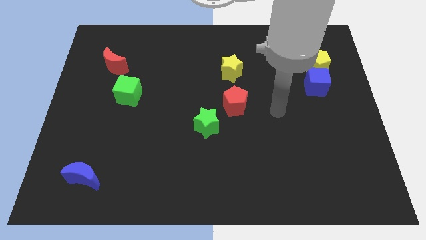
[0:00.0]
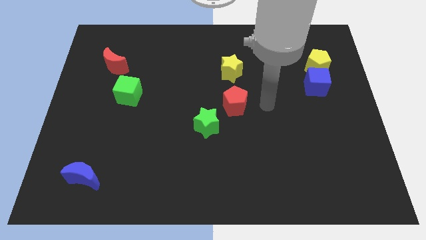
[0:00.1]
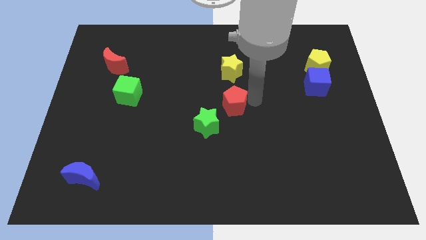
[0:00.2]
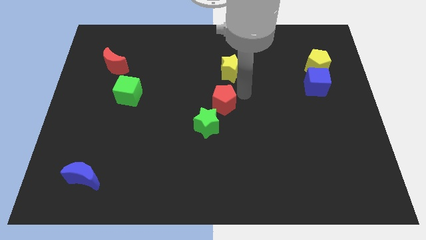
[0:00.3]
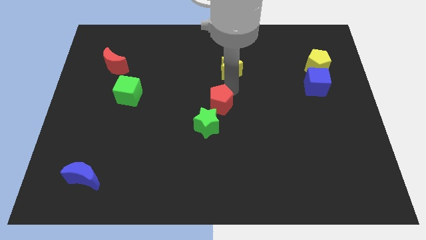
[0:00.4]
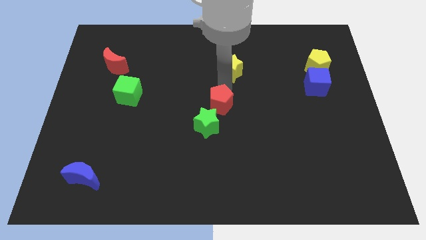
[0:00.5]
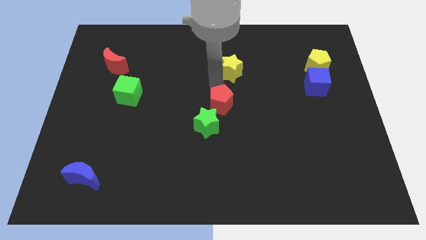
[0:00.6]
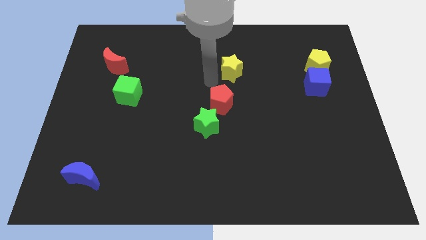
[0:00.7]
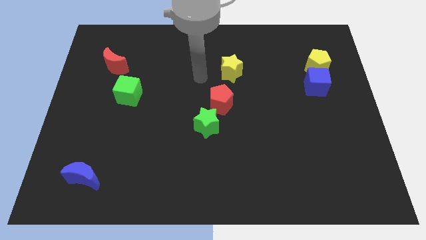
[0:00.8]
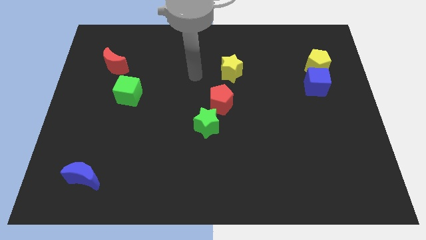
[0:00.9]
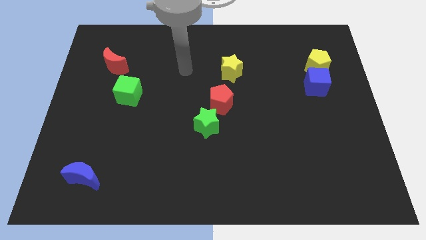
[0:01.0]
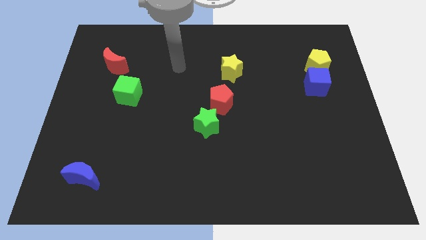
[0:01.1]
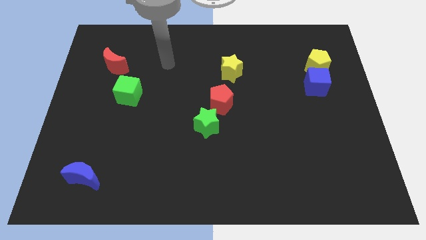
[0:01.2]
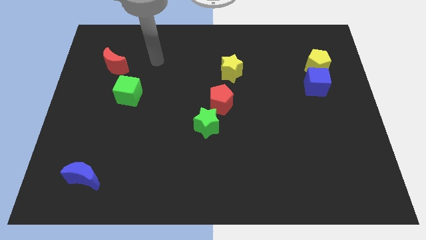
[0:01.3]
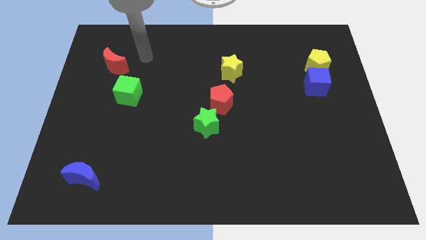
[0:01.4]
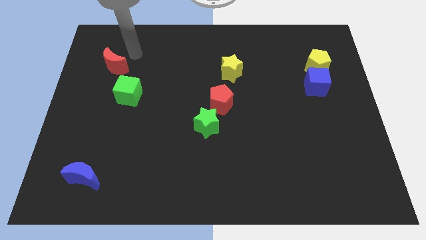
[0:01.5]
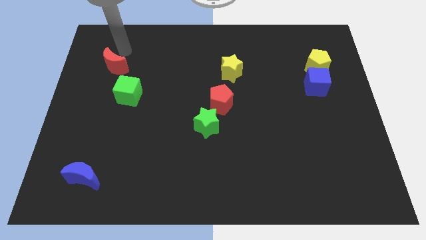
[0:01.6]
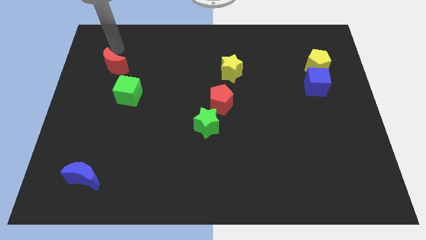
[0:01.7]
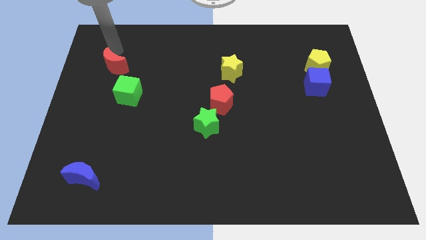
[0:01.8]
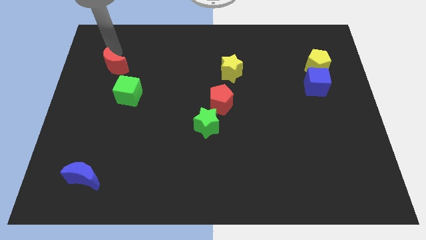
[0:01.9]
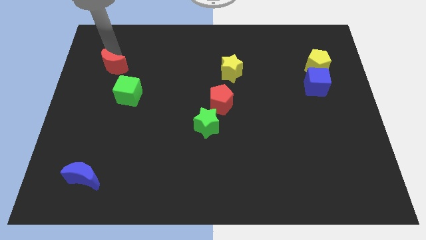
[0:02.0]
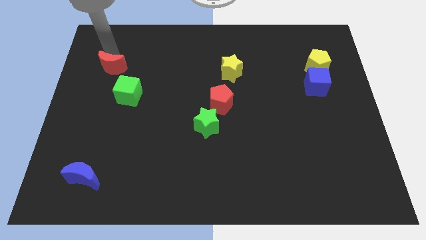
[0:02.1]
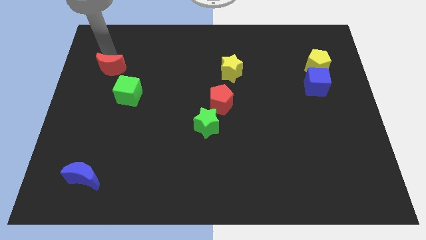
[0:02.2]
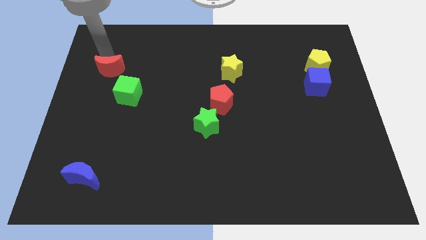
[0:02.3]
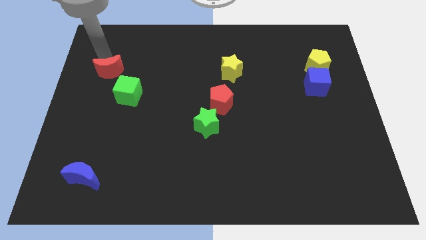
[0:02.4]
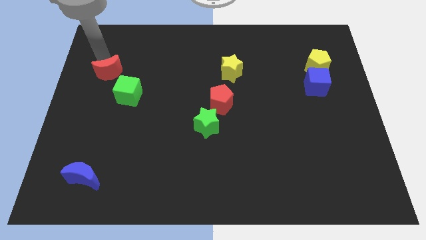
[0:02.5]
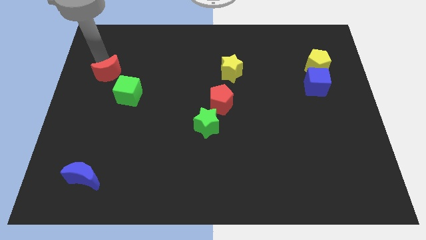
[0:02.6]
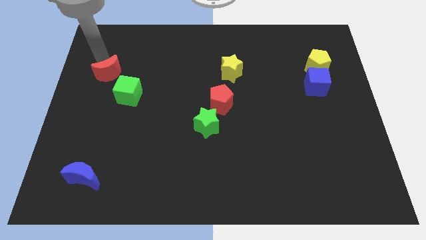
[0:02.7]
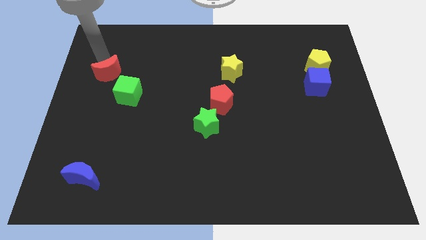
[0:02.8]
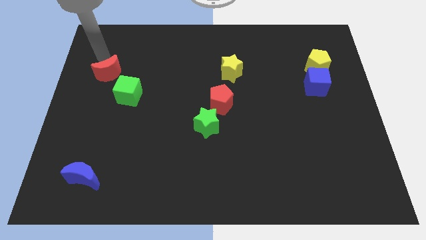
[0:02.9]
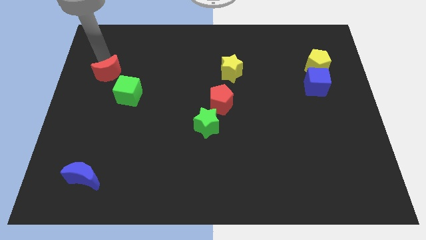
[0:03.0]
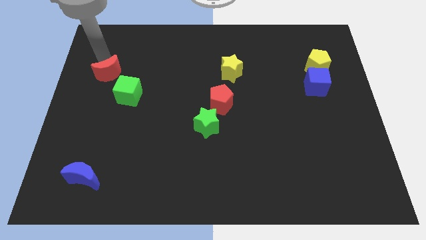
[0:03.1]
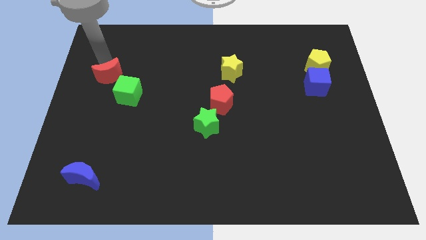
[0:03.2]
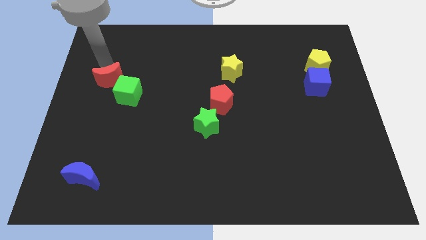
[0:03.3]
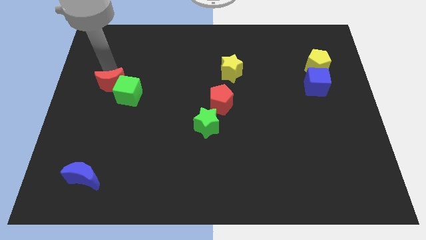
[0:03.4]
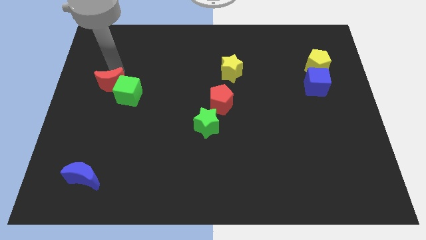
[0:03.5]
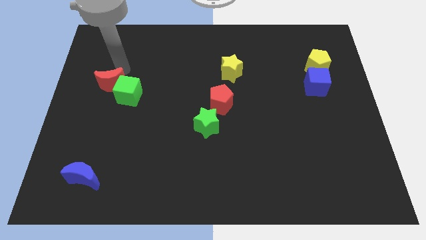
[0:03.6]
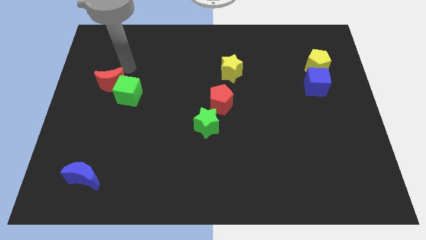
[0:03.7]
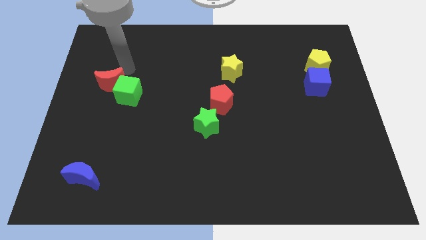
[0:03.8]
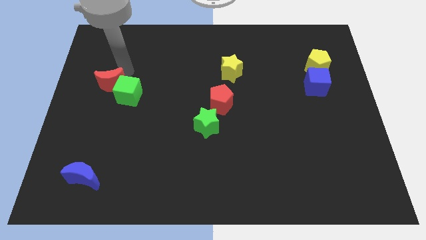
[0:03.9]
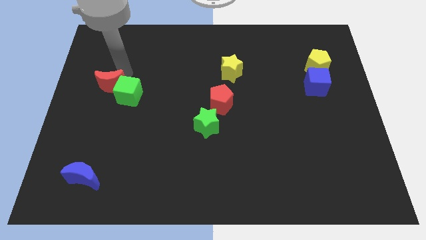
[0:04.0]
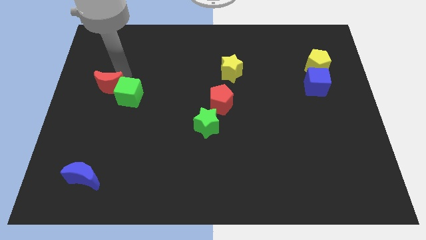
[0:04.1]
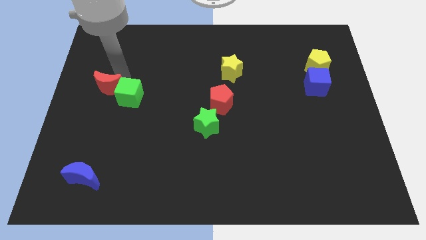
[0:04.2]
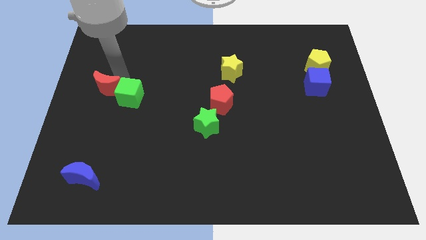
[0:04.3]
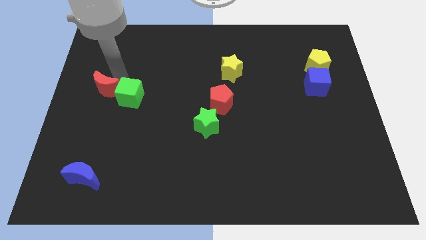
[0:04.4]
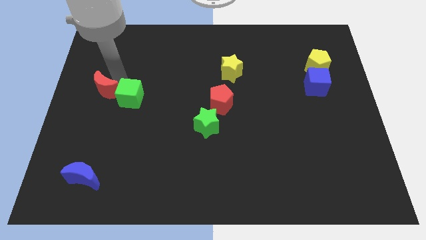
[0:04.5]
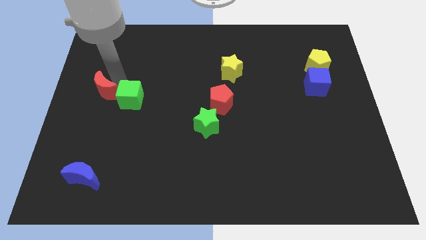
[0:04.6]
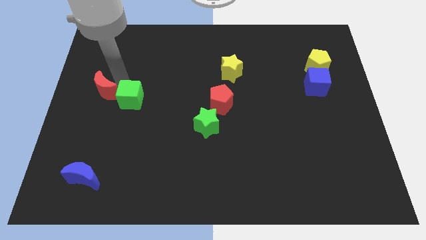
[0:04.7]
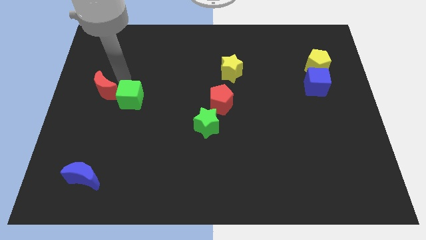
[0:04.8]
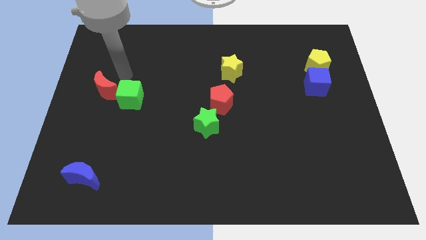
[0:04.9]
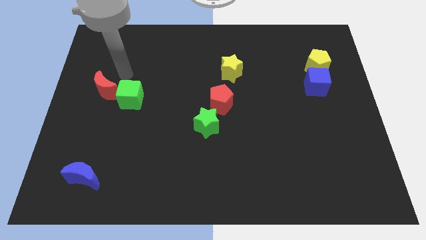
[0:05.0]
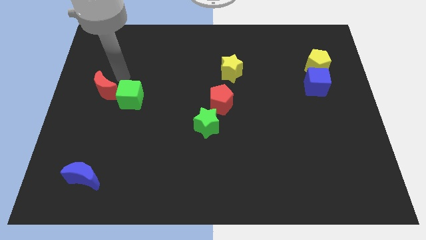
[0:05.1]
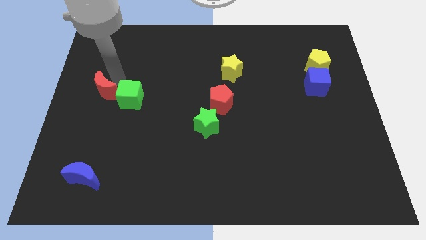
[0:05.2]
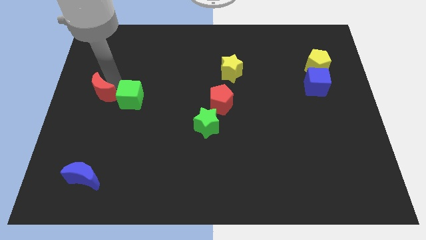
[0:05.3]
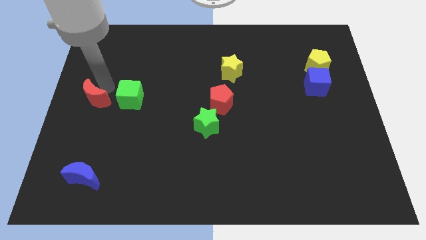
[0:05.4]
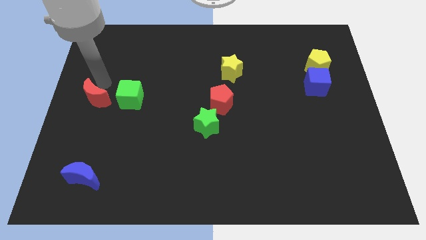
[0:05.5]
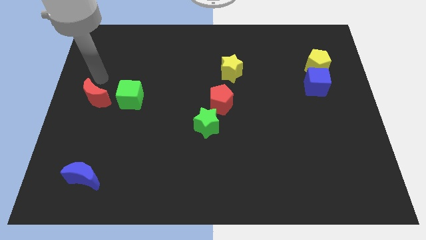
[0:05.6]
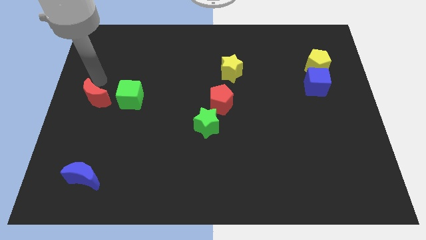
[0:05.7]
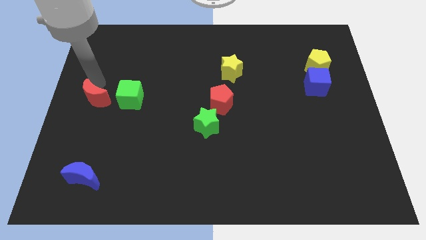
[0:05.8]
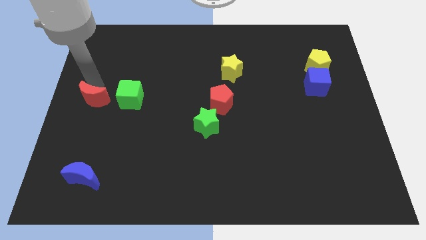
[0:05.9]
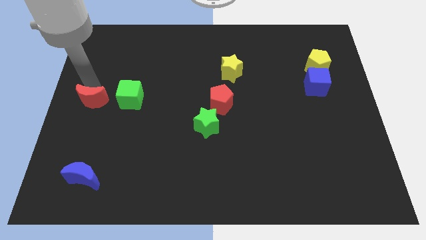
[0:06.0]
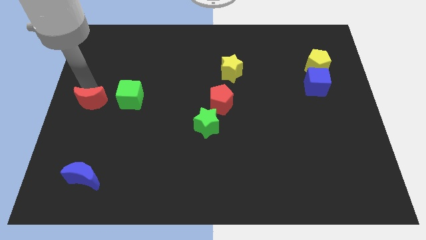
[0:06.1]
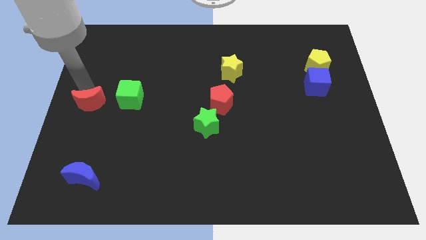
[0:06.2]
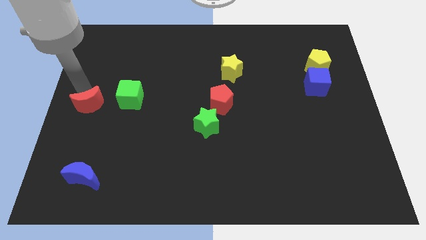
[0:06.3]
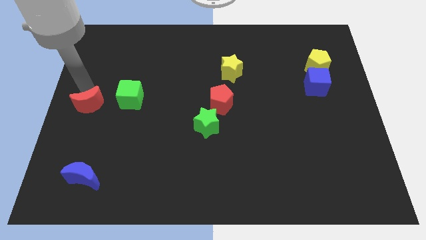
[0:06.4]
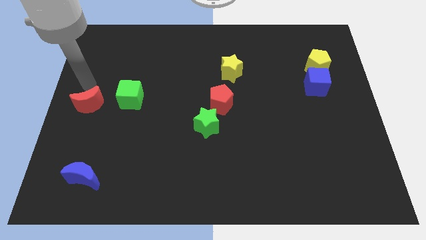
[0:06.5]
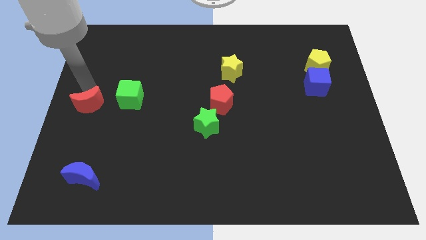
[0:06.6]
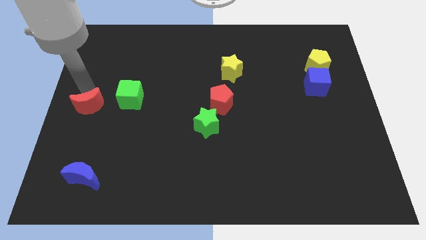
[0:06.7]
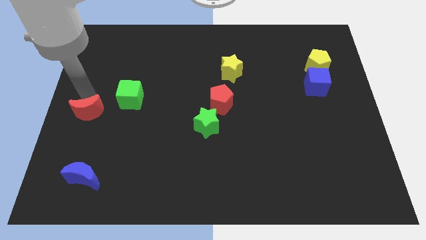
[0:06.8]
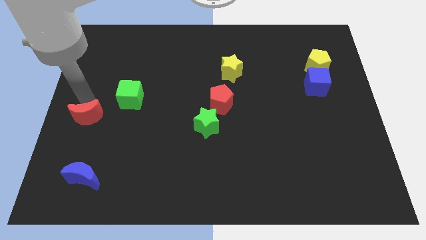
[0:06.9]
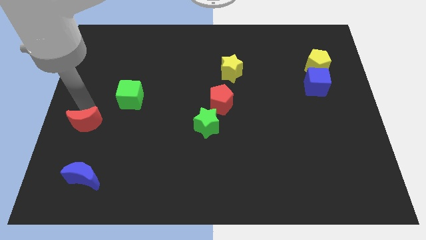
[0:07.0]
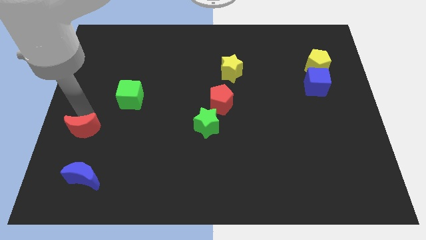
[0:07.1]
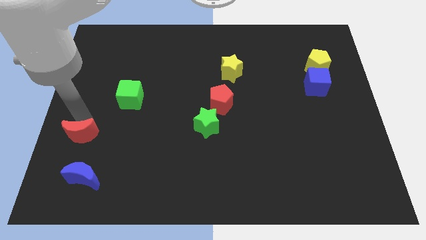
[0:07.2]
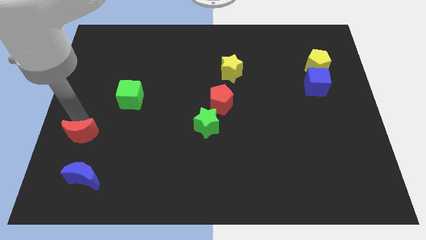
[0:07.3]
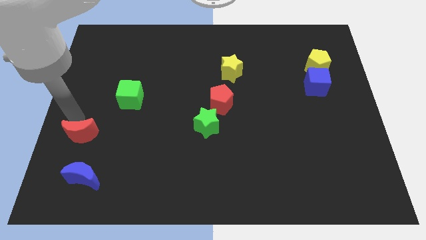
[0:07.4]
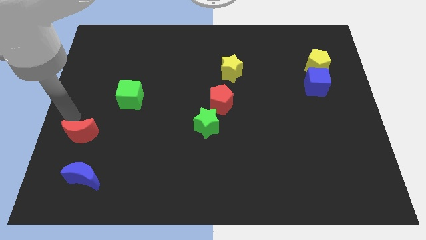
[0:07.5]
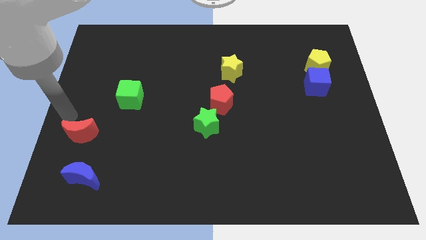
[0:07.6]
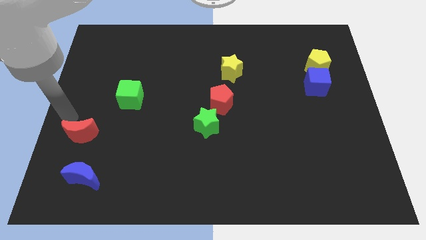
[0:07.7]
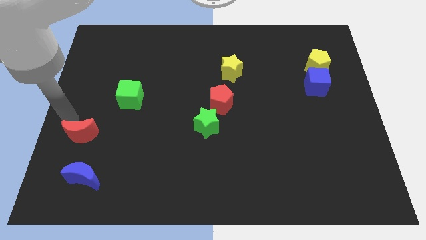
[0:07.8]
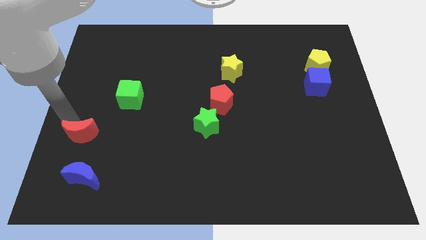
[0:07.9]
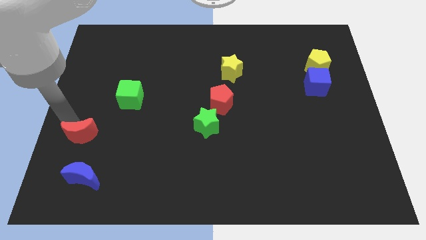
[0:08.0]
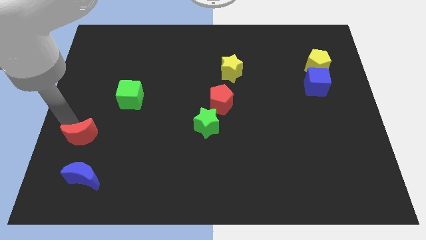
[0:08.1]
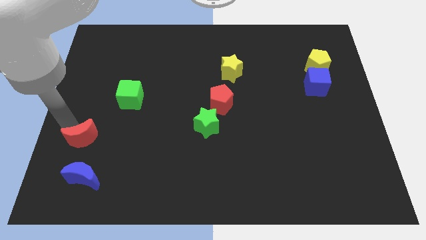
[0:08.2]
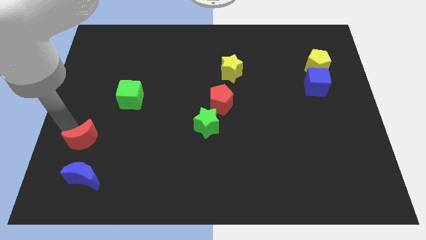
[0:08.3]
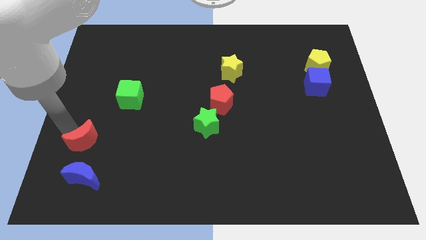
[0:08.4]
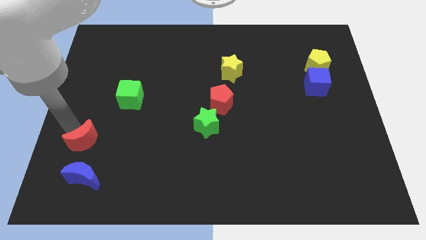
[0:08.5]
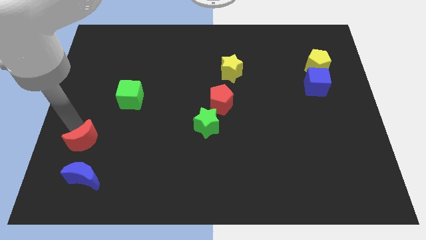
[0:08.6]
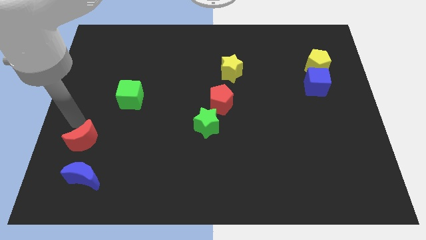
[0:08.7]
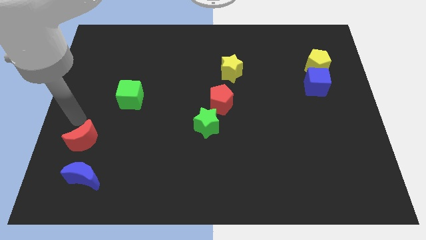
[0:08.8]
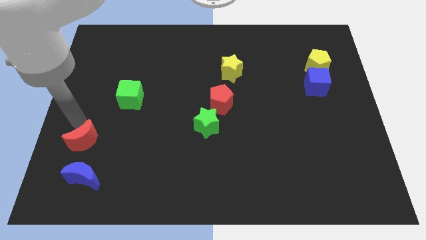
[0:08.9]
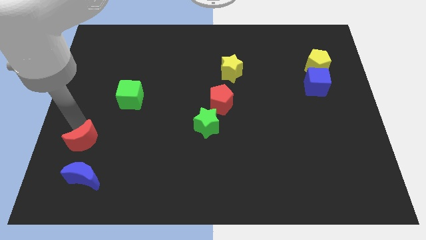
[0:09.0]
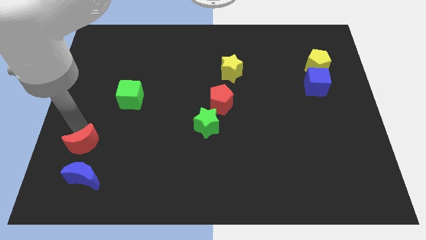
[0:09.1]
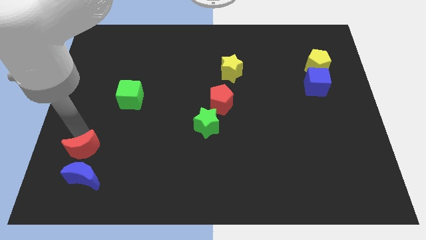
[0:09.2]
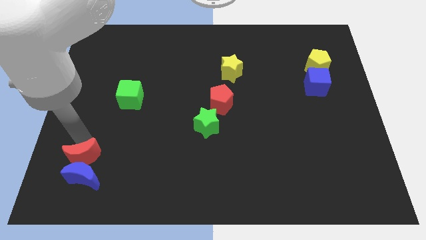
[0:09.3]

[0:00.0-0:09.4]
push the red moon close to the blue moon
